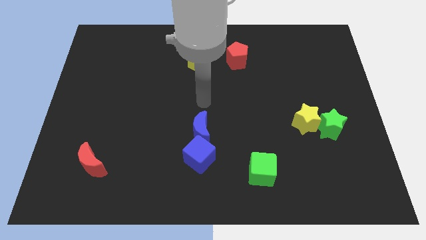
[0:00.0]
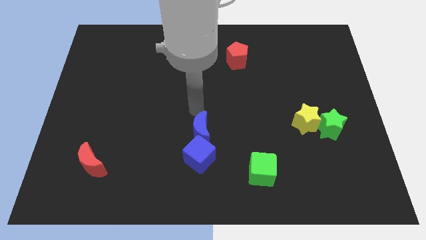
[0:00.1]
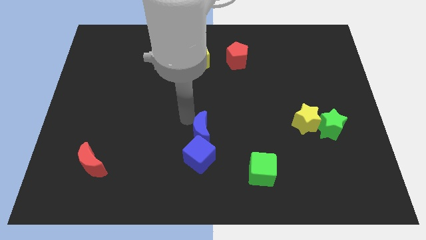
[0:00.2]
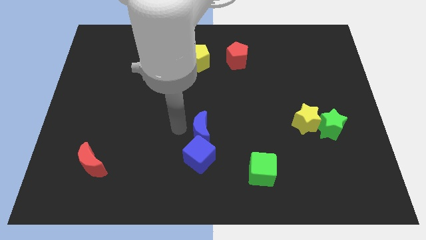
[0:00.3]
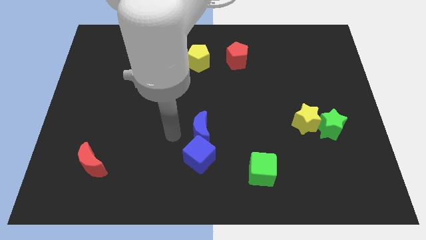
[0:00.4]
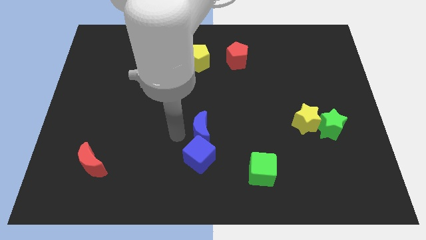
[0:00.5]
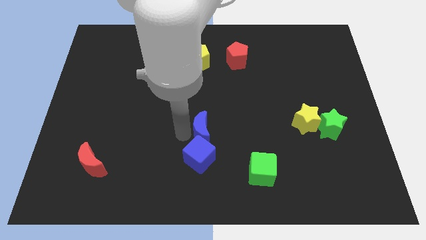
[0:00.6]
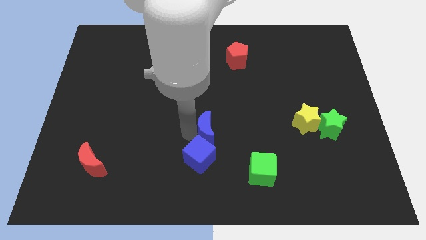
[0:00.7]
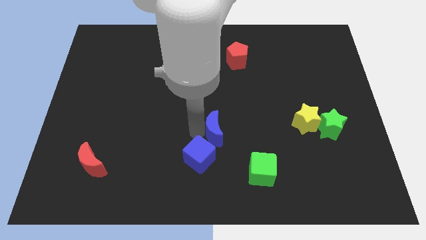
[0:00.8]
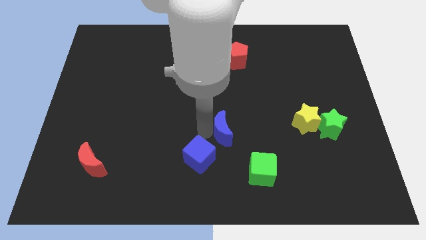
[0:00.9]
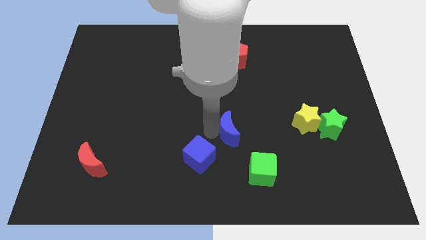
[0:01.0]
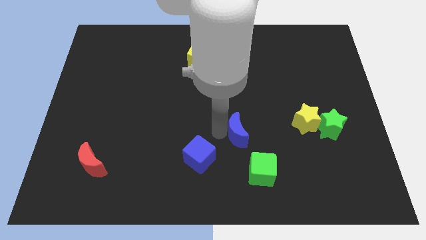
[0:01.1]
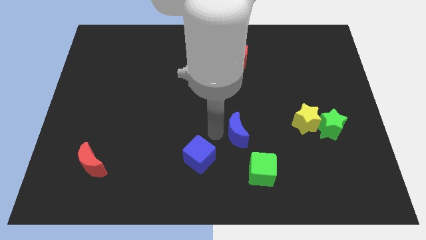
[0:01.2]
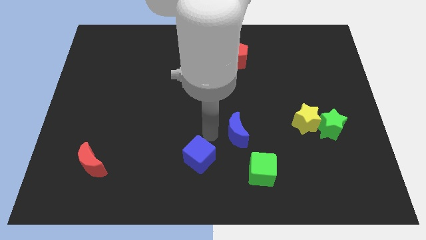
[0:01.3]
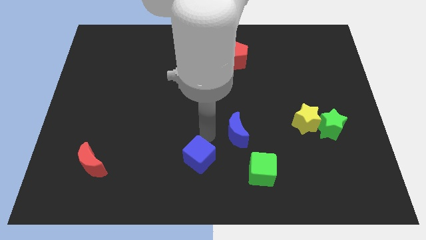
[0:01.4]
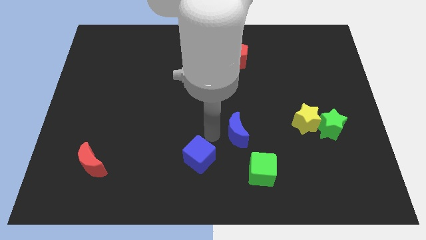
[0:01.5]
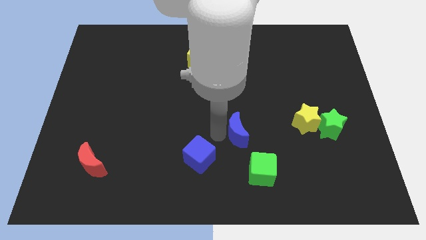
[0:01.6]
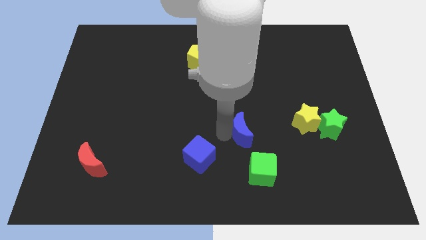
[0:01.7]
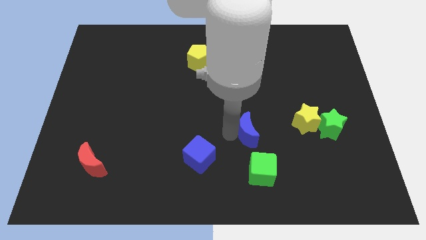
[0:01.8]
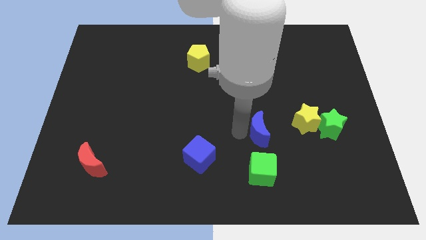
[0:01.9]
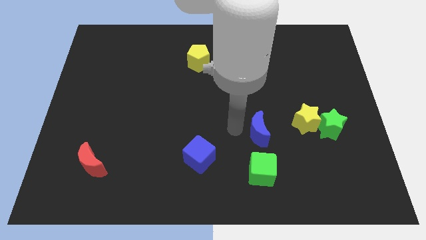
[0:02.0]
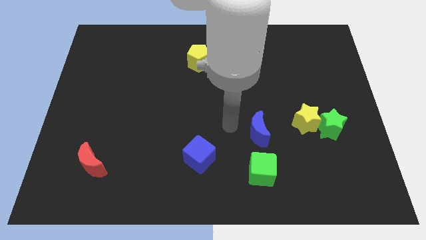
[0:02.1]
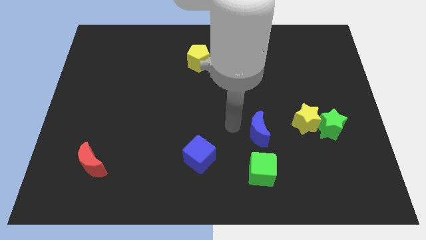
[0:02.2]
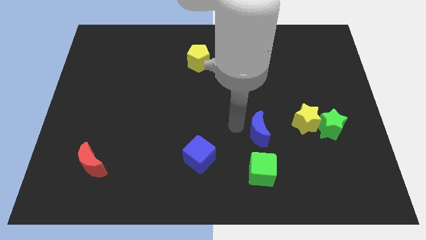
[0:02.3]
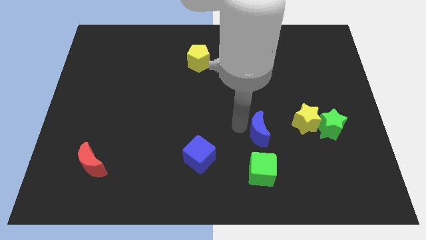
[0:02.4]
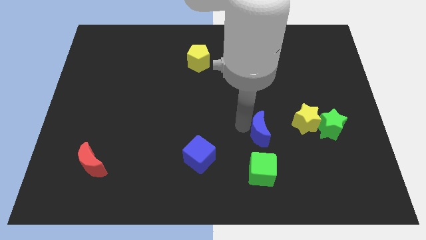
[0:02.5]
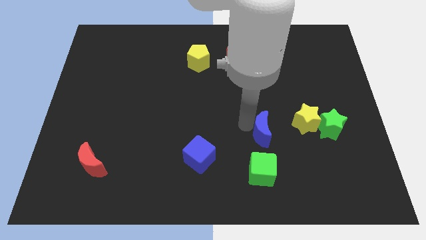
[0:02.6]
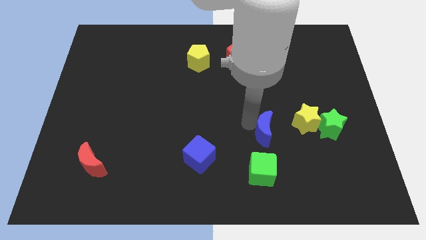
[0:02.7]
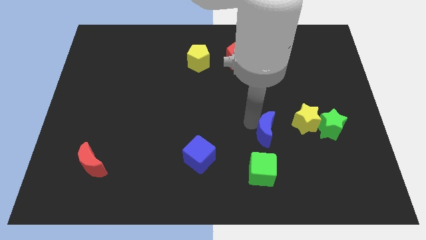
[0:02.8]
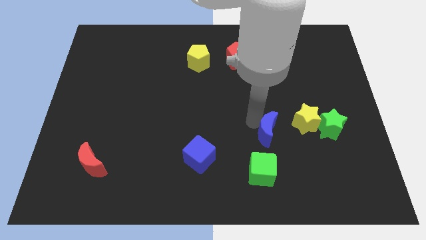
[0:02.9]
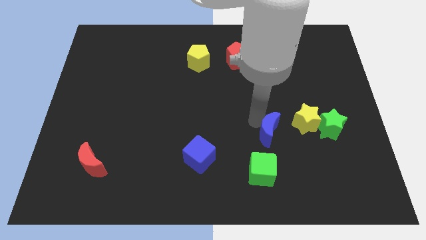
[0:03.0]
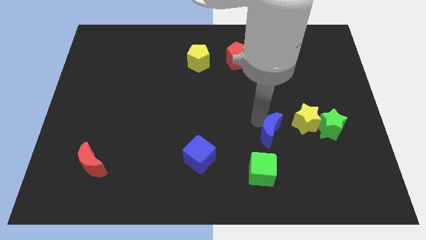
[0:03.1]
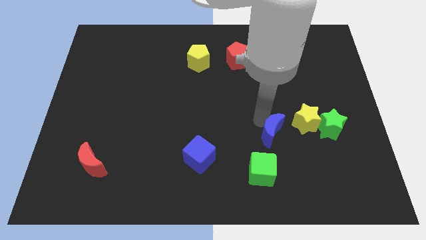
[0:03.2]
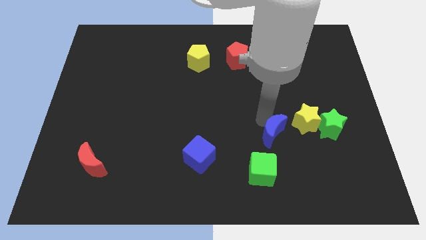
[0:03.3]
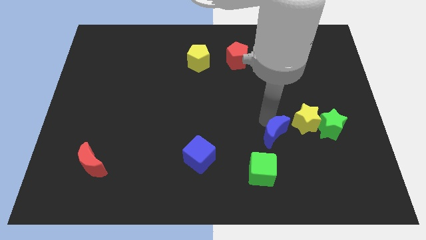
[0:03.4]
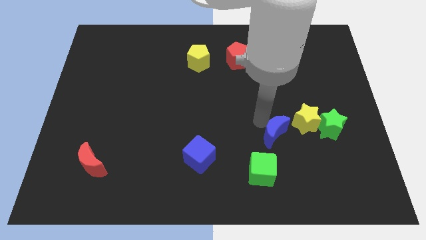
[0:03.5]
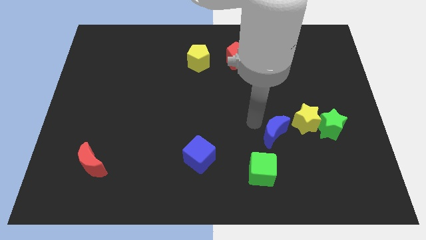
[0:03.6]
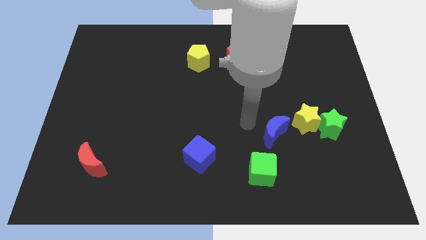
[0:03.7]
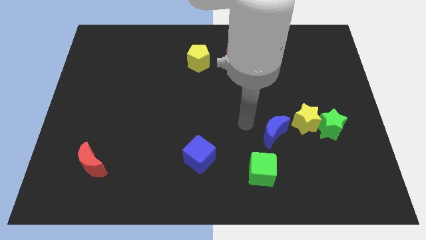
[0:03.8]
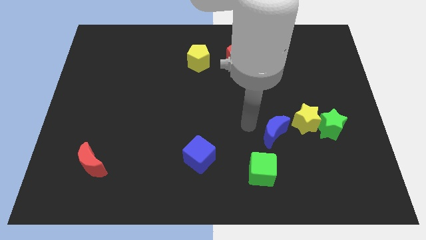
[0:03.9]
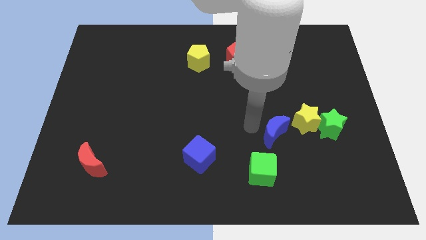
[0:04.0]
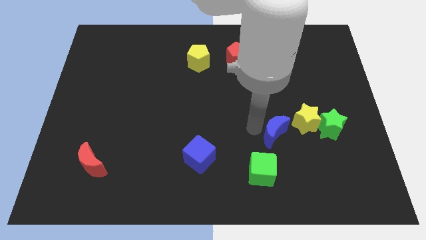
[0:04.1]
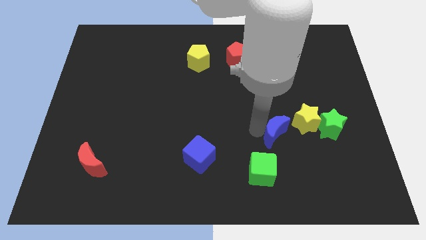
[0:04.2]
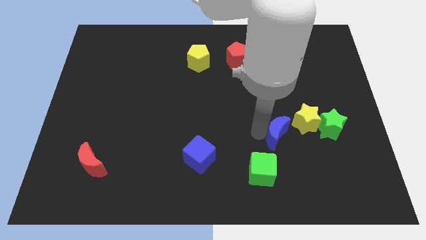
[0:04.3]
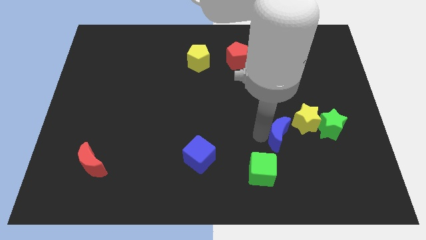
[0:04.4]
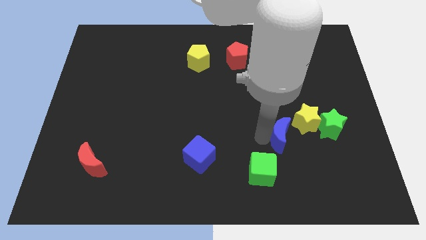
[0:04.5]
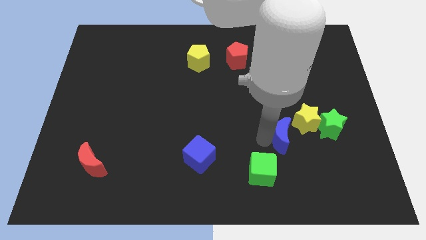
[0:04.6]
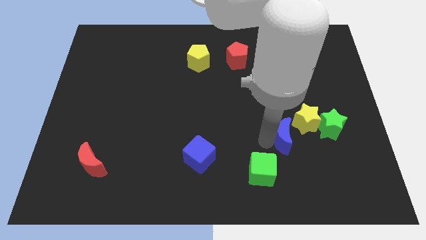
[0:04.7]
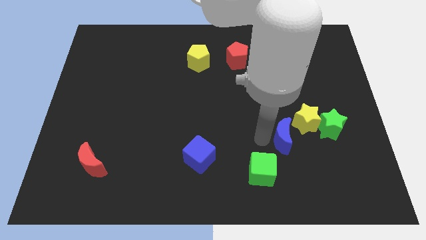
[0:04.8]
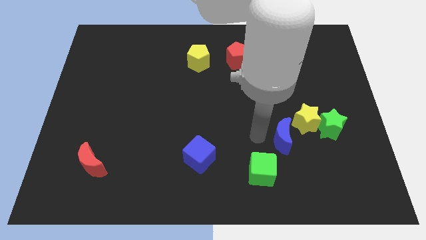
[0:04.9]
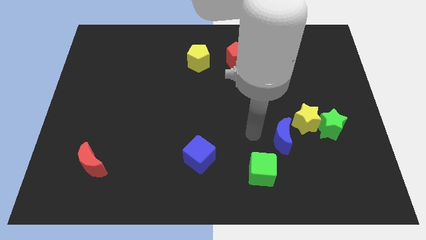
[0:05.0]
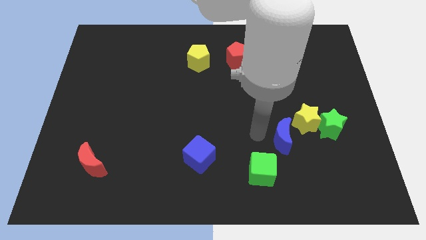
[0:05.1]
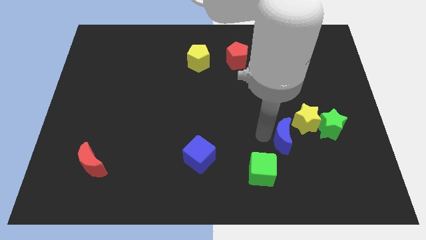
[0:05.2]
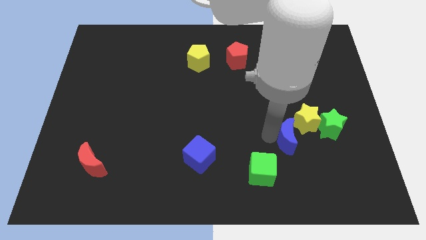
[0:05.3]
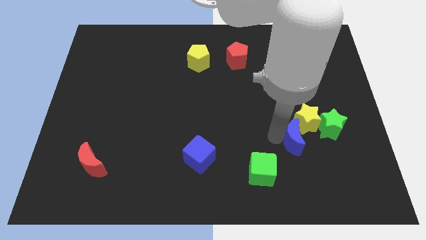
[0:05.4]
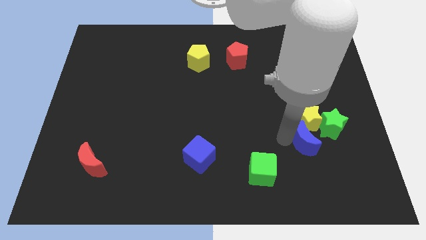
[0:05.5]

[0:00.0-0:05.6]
put the blue moon diagonally down and to the right of the yellow star

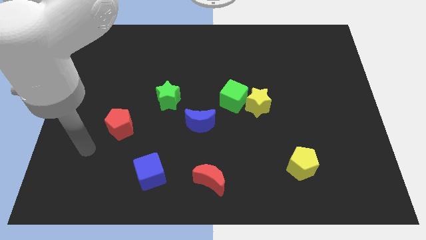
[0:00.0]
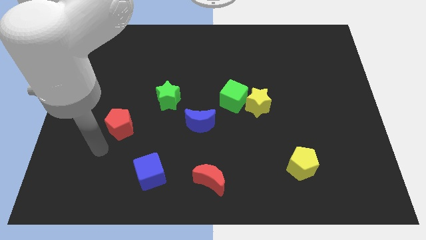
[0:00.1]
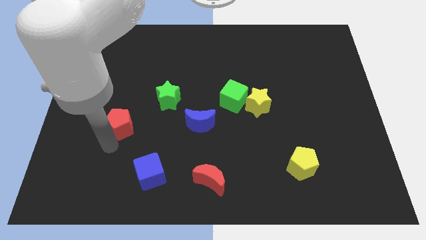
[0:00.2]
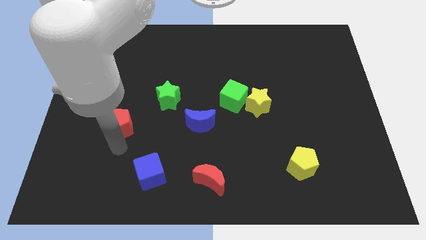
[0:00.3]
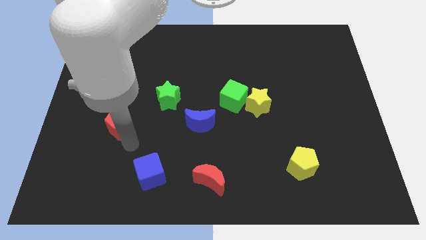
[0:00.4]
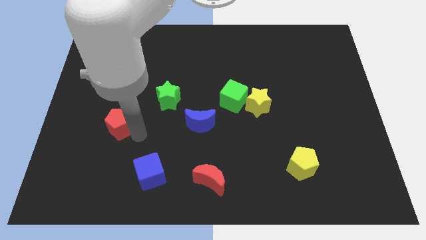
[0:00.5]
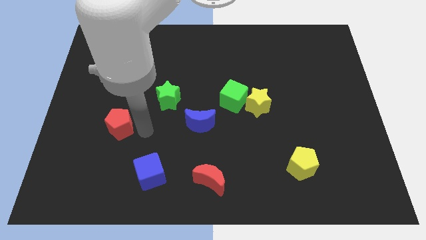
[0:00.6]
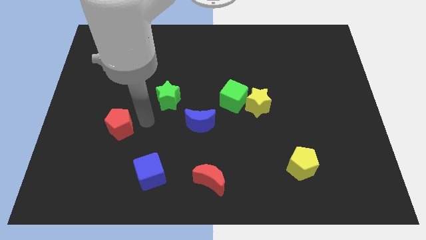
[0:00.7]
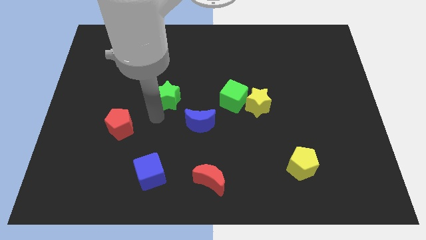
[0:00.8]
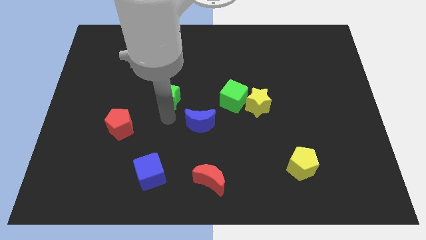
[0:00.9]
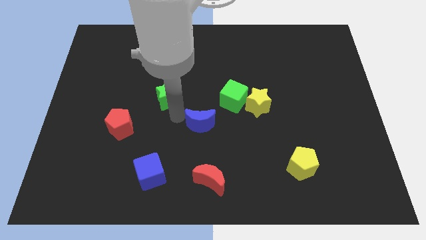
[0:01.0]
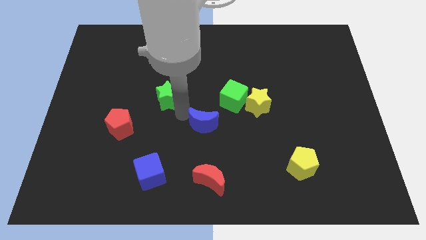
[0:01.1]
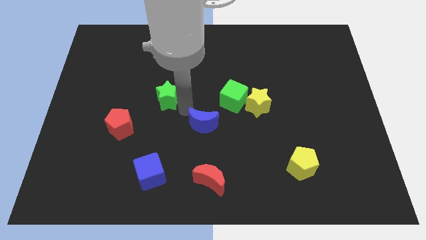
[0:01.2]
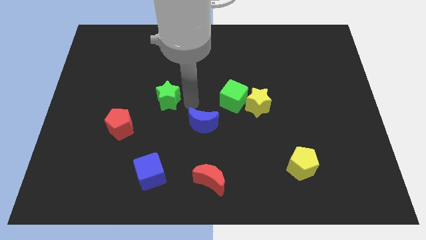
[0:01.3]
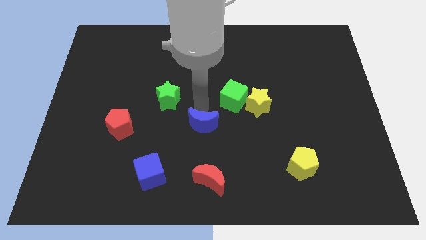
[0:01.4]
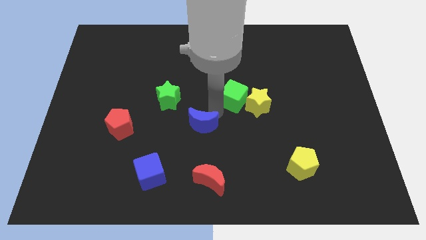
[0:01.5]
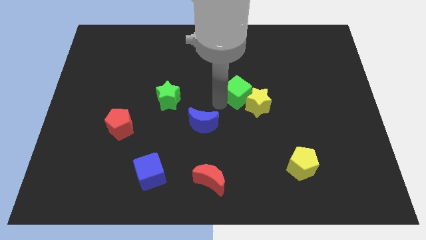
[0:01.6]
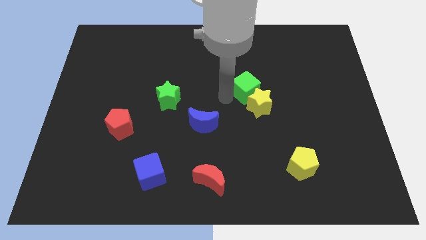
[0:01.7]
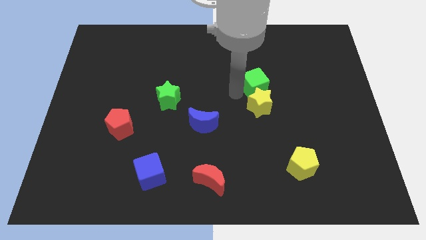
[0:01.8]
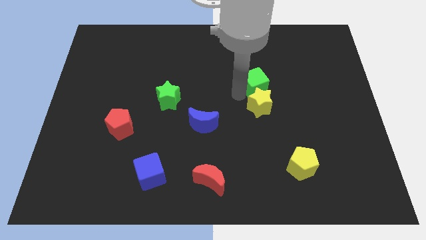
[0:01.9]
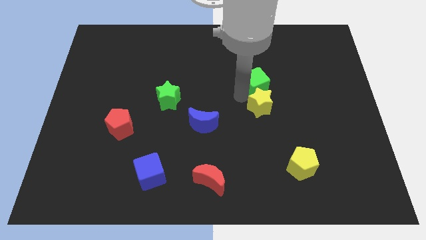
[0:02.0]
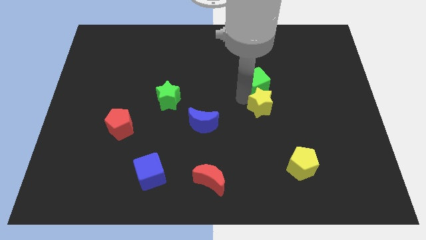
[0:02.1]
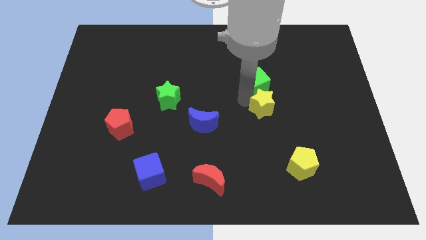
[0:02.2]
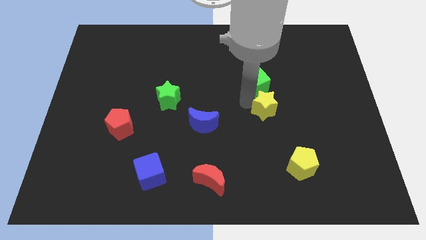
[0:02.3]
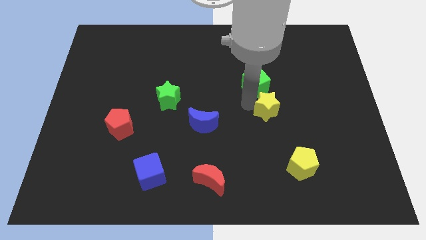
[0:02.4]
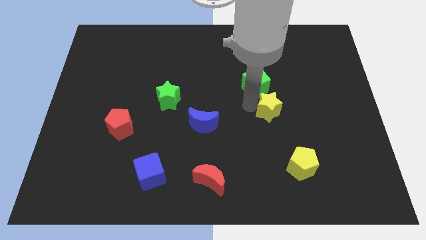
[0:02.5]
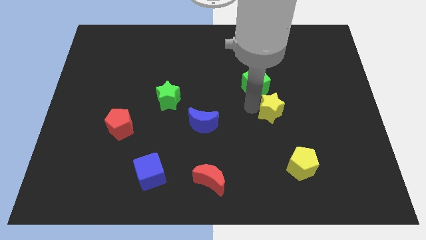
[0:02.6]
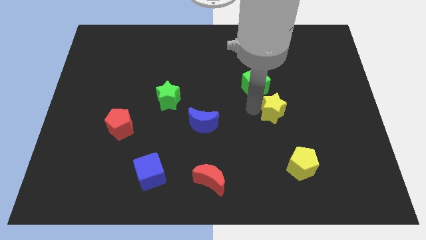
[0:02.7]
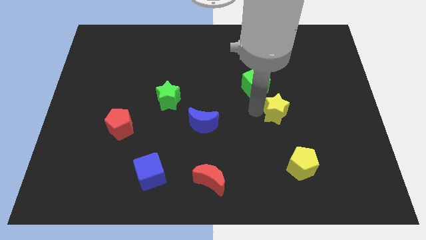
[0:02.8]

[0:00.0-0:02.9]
put the yellow star to the top of the yellow pentagon
